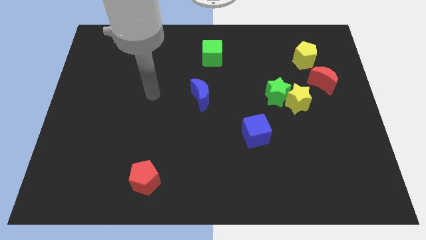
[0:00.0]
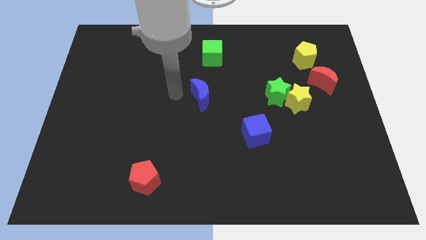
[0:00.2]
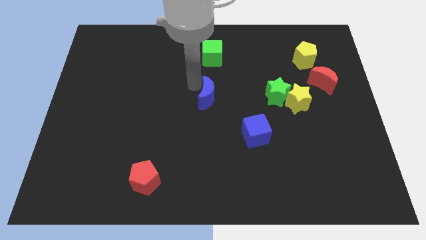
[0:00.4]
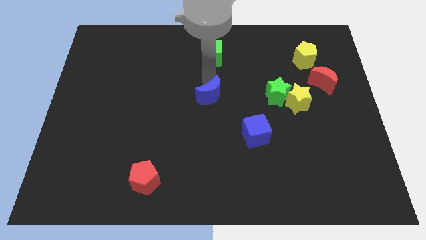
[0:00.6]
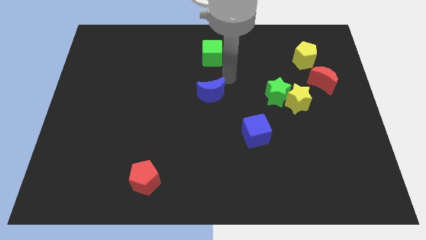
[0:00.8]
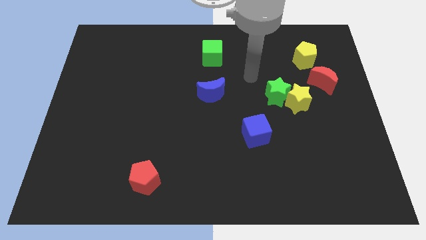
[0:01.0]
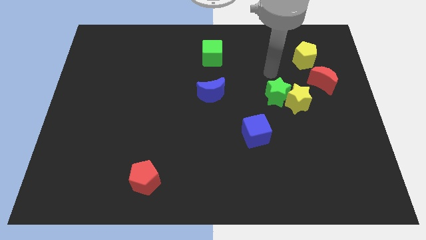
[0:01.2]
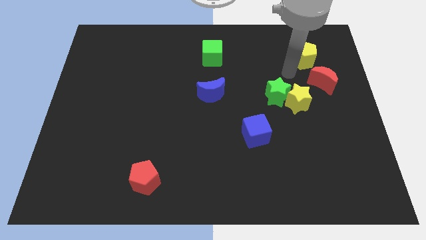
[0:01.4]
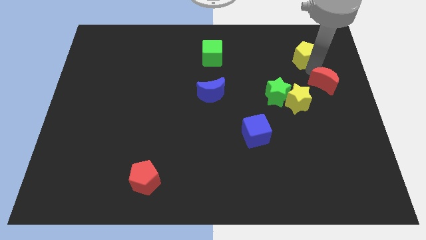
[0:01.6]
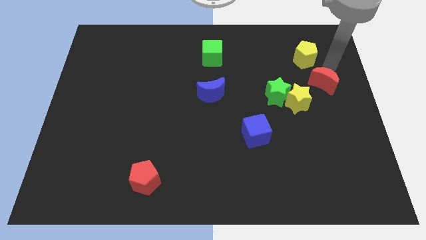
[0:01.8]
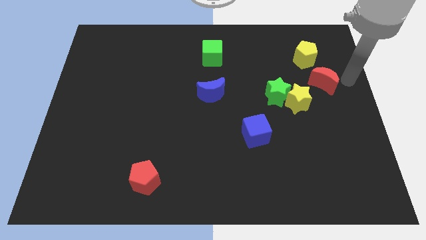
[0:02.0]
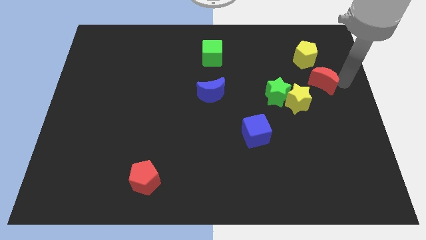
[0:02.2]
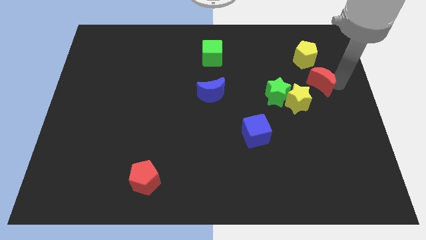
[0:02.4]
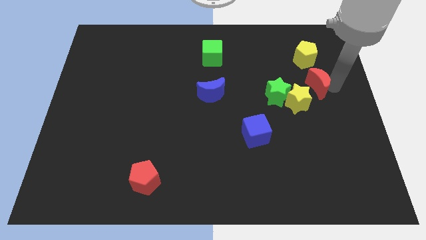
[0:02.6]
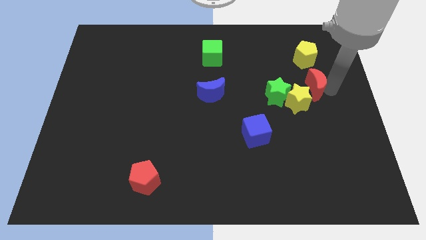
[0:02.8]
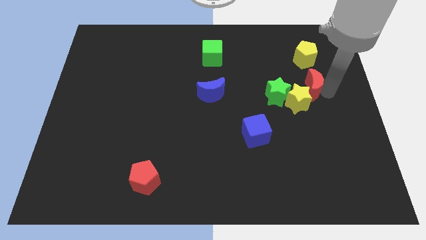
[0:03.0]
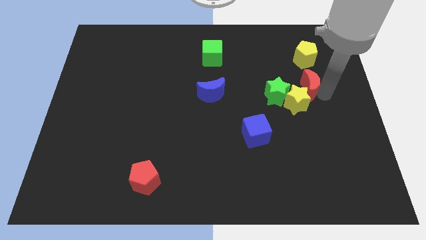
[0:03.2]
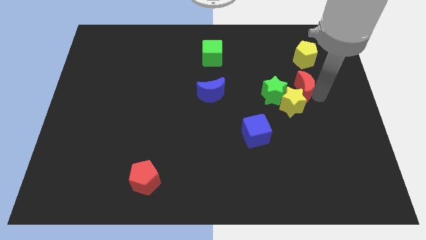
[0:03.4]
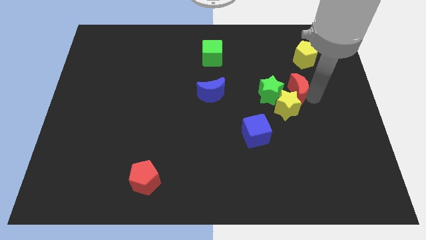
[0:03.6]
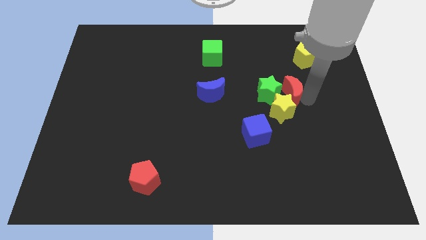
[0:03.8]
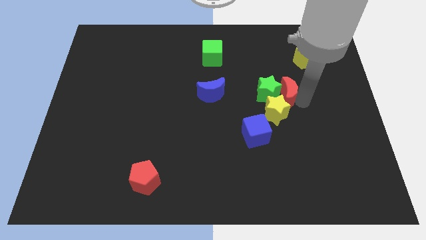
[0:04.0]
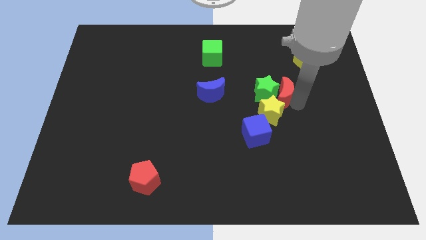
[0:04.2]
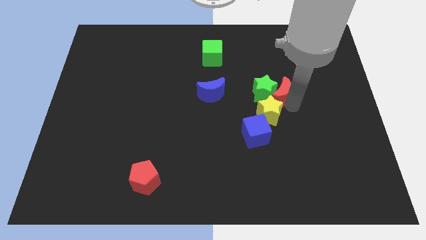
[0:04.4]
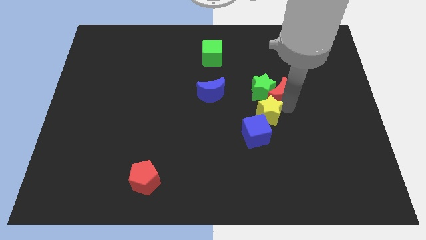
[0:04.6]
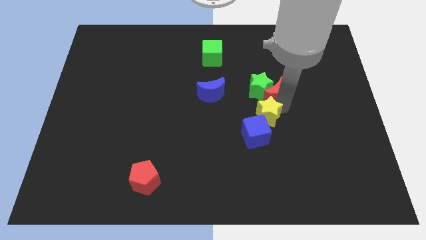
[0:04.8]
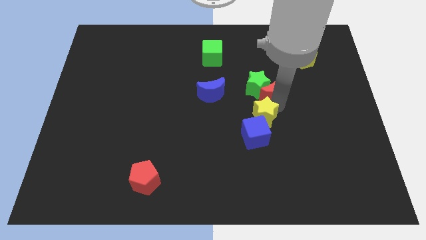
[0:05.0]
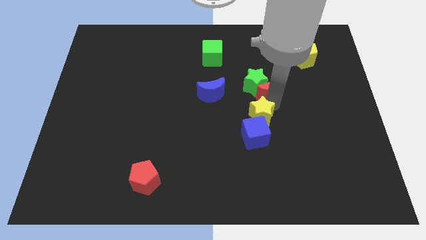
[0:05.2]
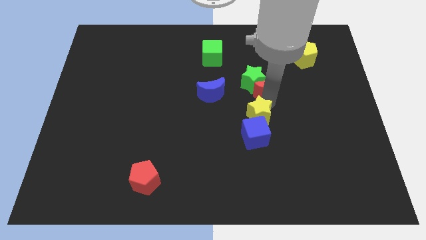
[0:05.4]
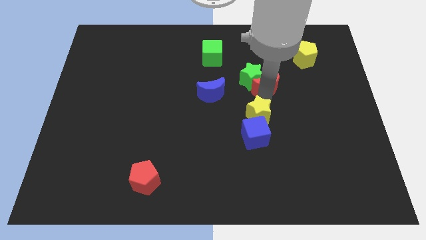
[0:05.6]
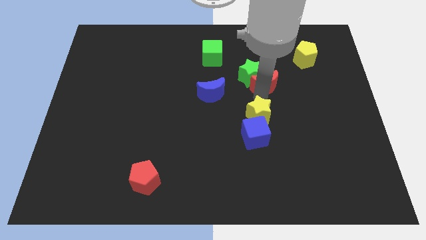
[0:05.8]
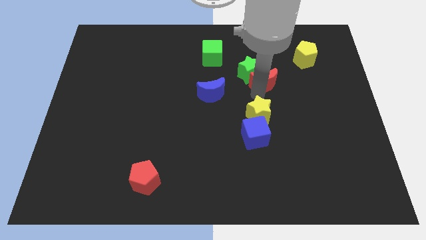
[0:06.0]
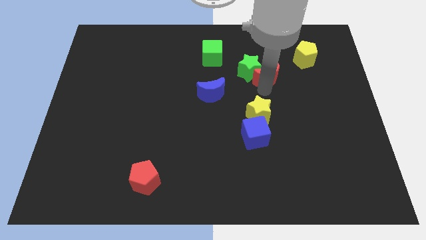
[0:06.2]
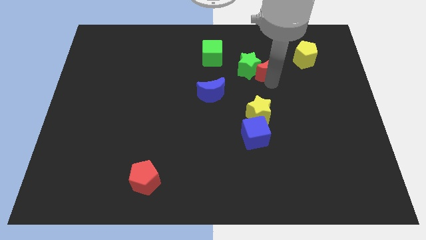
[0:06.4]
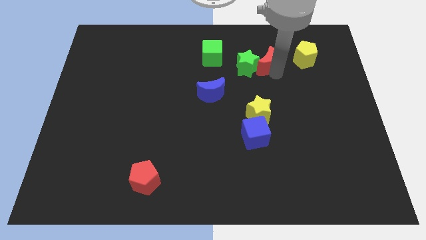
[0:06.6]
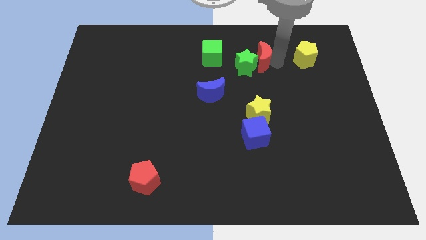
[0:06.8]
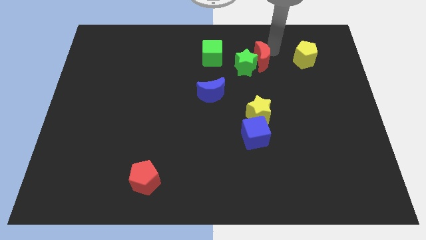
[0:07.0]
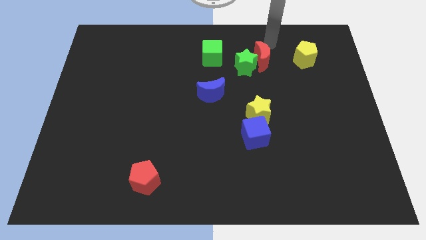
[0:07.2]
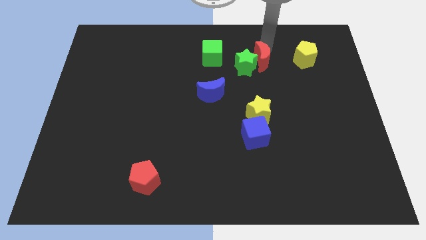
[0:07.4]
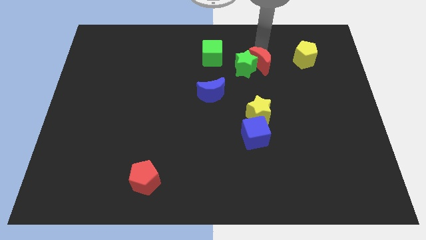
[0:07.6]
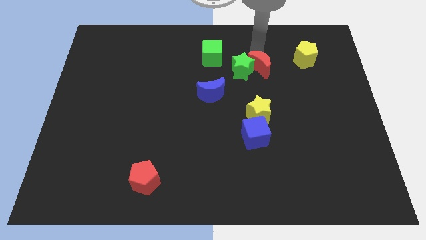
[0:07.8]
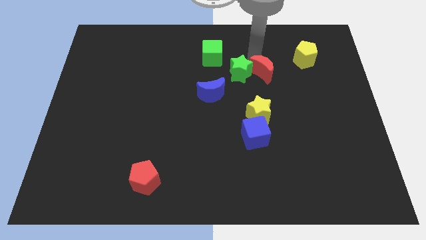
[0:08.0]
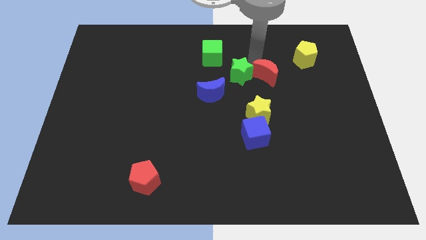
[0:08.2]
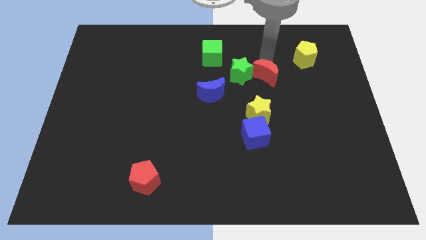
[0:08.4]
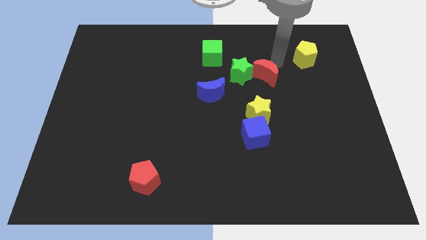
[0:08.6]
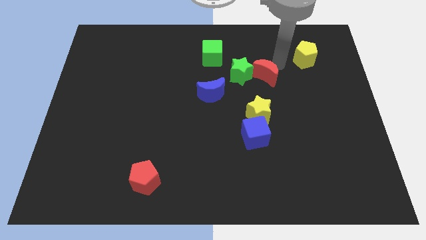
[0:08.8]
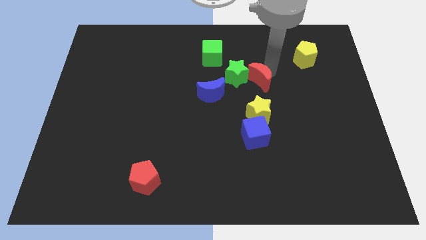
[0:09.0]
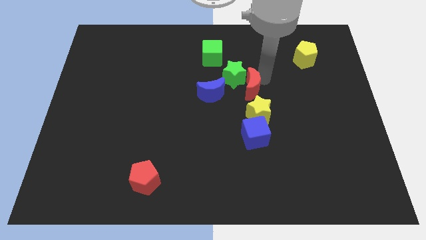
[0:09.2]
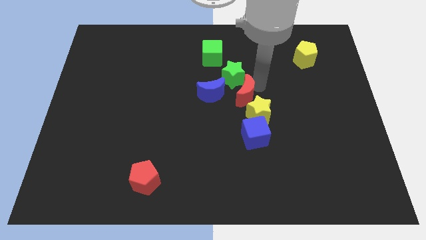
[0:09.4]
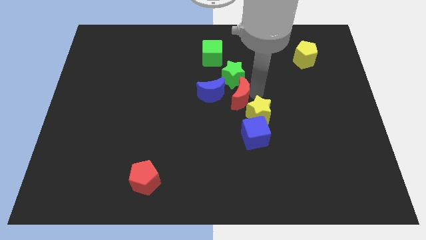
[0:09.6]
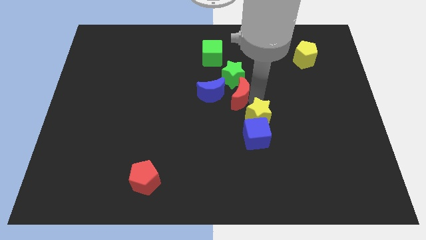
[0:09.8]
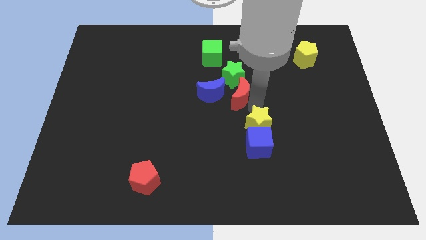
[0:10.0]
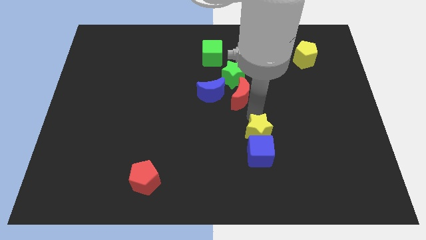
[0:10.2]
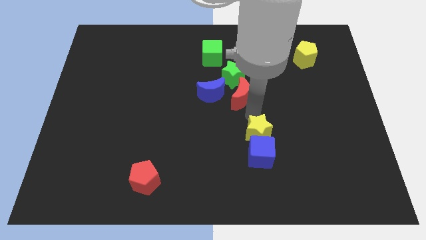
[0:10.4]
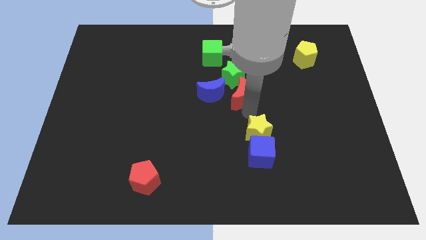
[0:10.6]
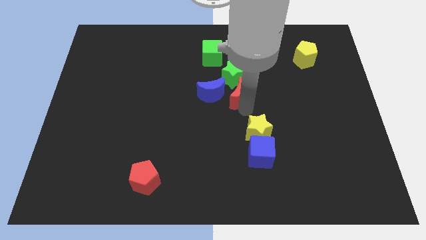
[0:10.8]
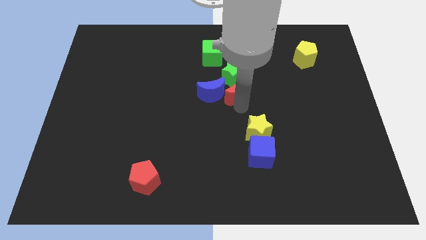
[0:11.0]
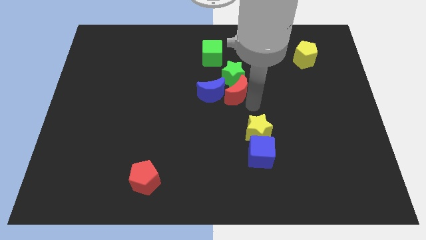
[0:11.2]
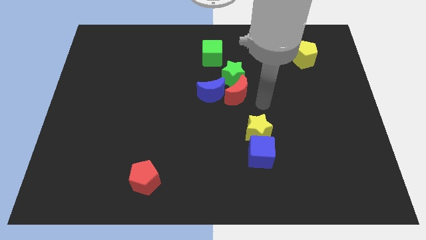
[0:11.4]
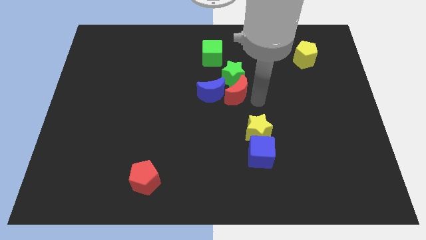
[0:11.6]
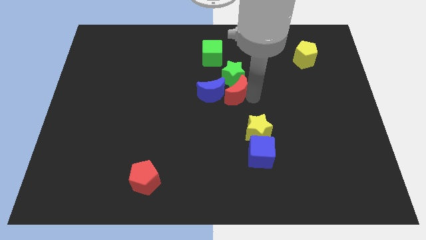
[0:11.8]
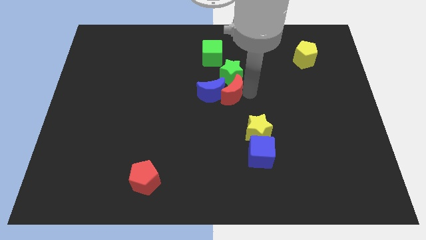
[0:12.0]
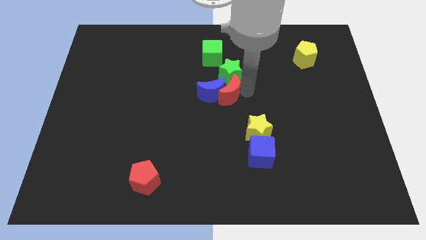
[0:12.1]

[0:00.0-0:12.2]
push the red moon to the bottom side of the green cube

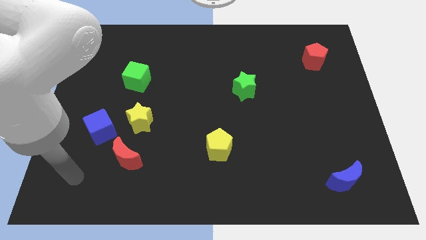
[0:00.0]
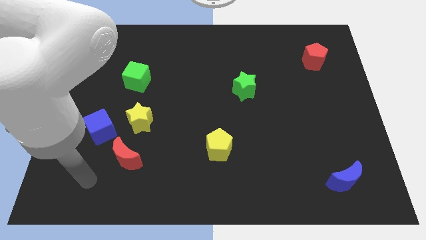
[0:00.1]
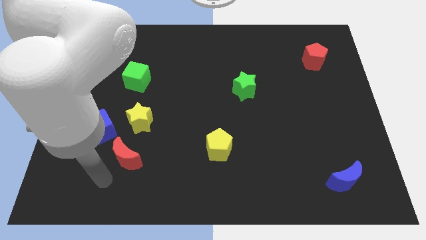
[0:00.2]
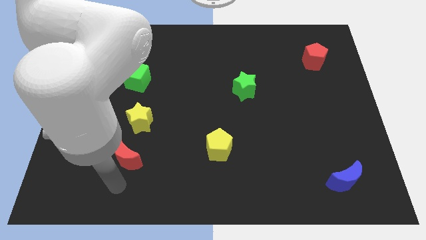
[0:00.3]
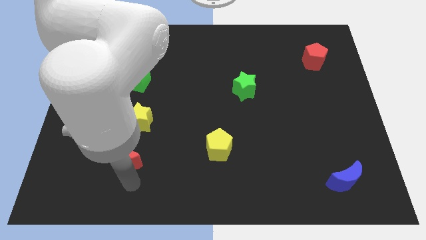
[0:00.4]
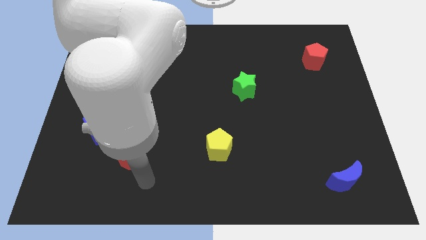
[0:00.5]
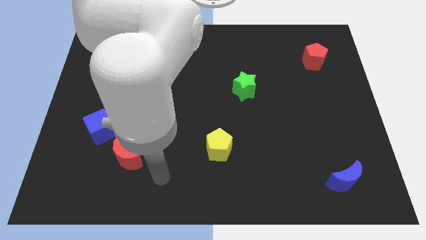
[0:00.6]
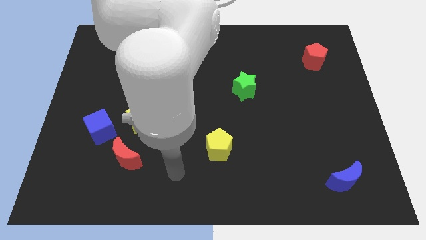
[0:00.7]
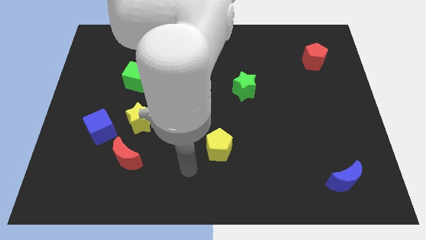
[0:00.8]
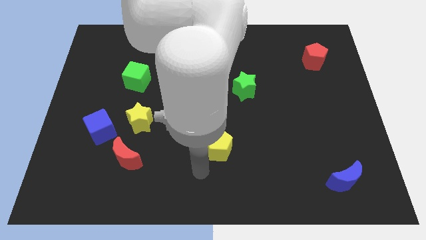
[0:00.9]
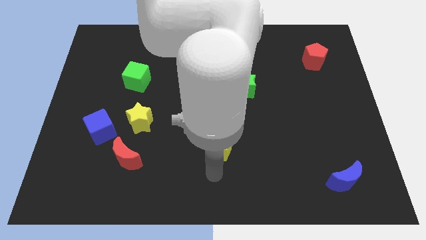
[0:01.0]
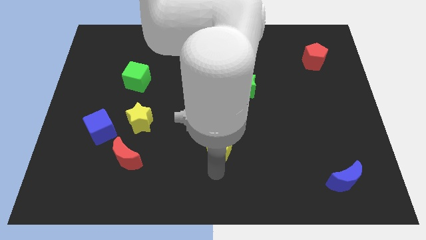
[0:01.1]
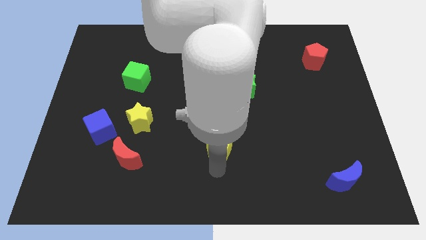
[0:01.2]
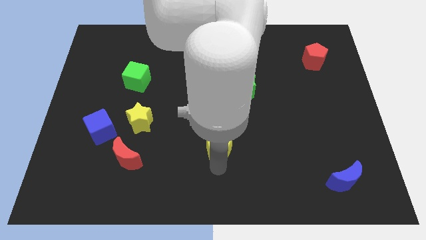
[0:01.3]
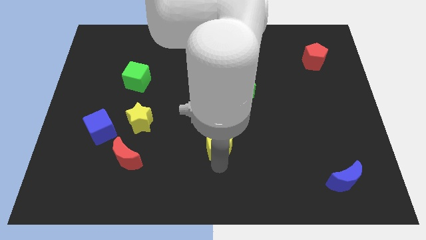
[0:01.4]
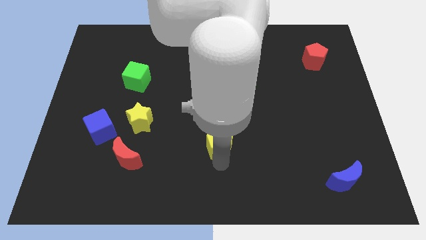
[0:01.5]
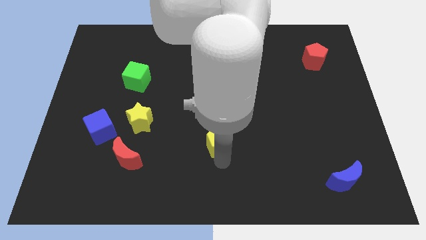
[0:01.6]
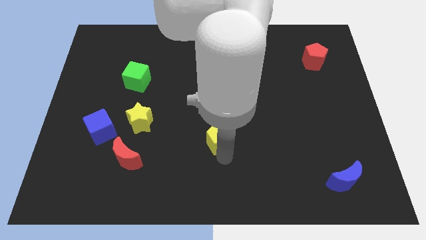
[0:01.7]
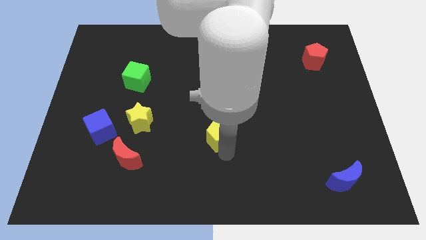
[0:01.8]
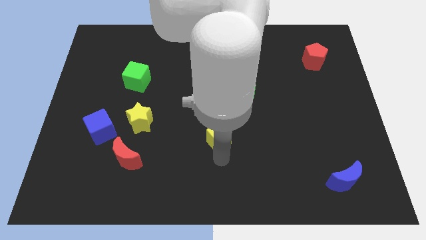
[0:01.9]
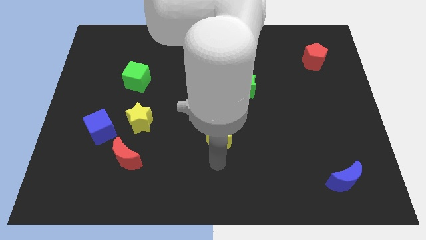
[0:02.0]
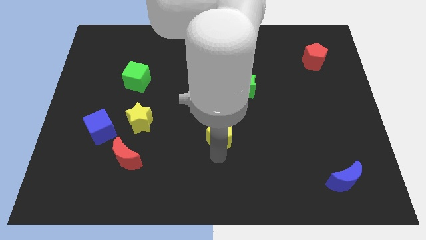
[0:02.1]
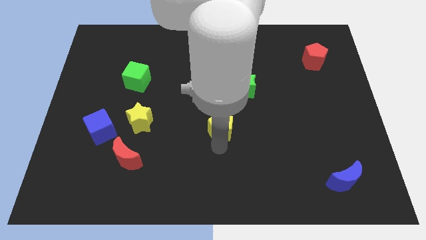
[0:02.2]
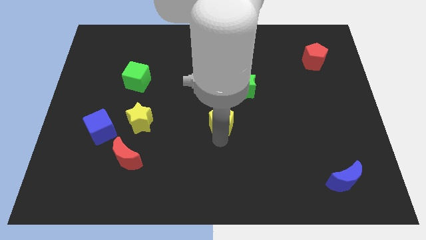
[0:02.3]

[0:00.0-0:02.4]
push the yellow pentagon to the bottom left of the green star
